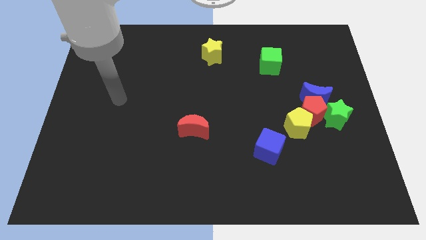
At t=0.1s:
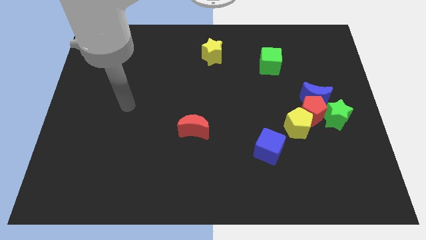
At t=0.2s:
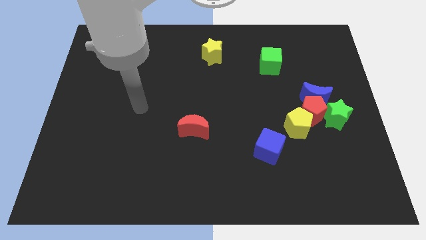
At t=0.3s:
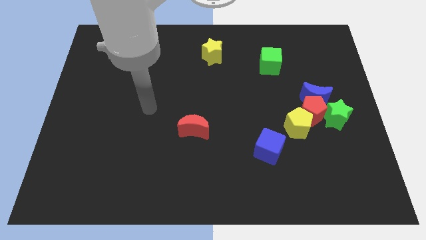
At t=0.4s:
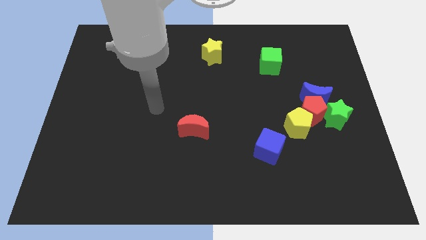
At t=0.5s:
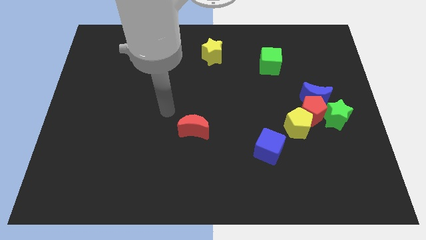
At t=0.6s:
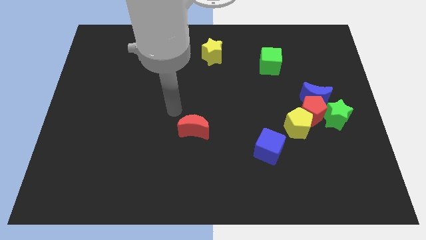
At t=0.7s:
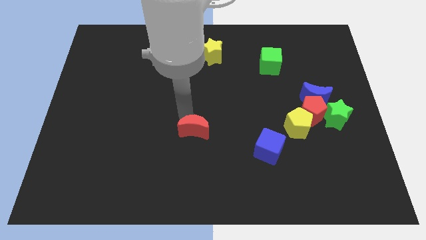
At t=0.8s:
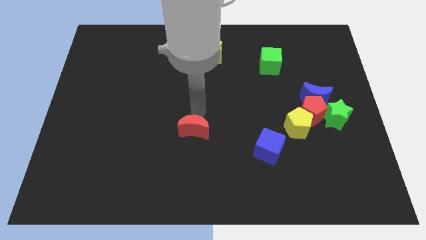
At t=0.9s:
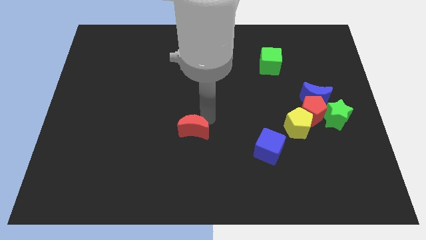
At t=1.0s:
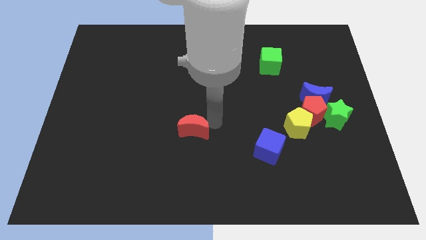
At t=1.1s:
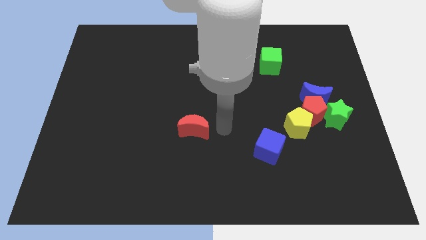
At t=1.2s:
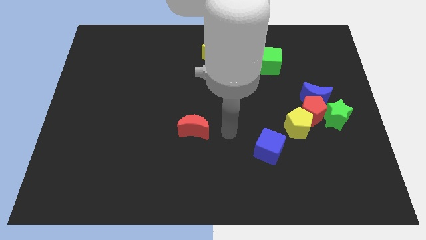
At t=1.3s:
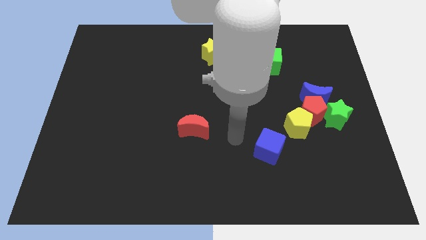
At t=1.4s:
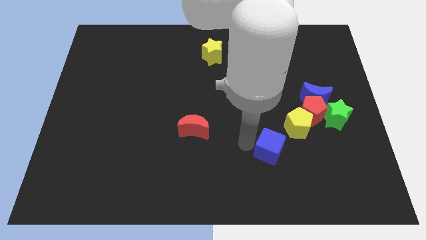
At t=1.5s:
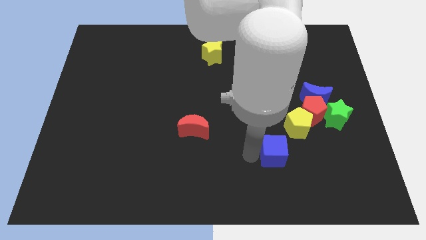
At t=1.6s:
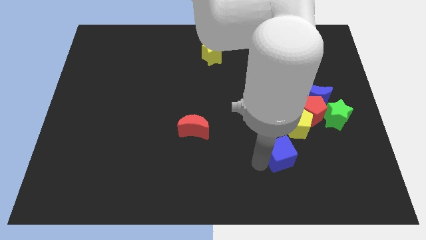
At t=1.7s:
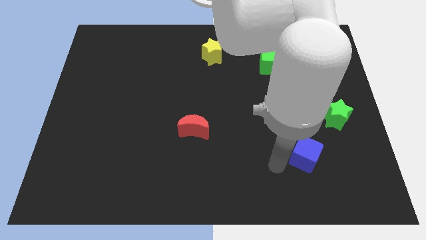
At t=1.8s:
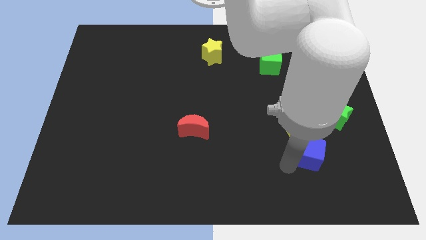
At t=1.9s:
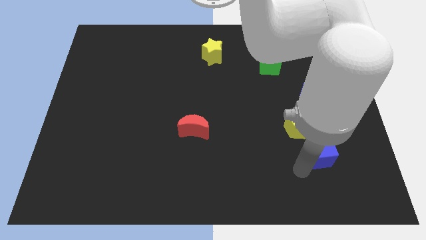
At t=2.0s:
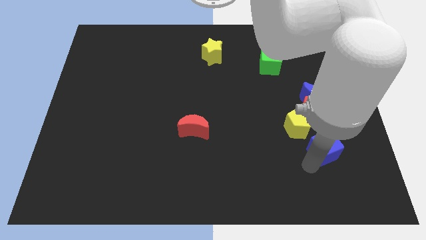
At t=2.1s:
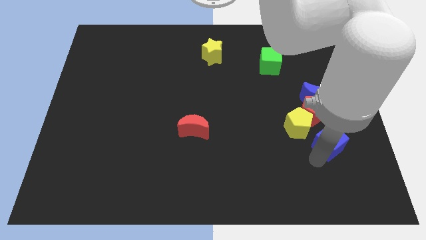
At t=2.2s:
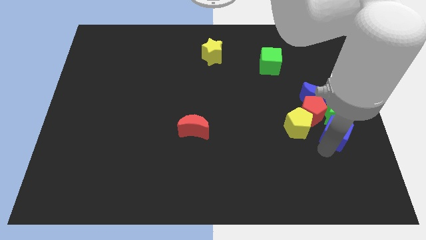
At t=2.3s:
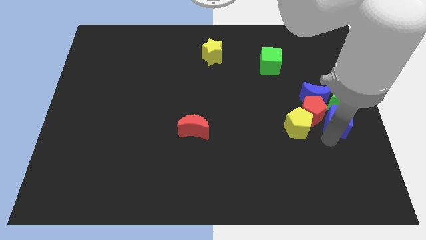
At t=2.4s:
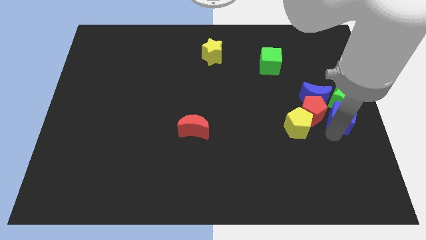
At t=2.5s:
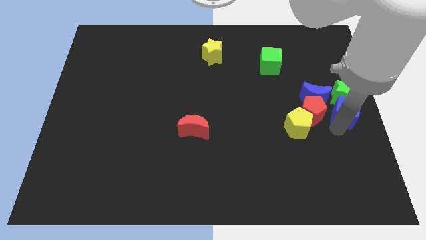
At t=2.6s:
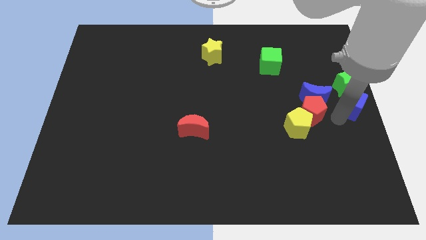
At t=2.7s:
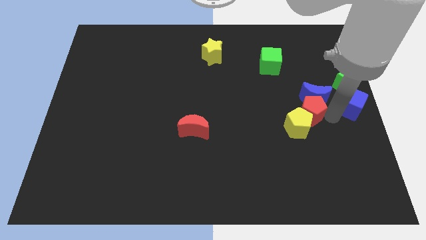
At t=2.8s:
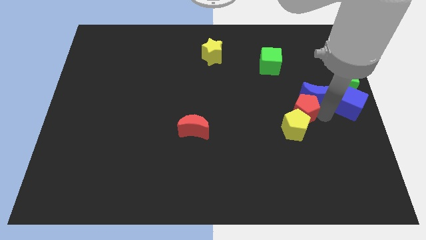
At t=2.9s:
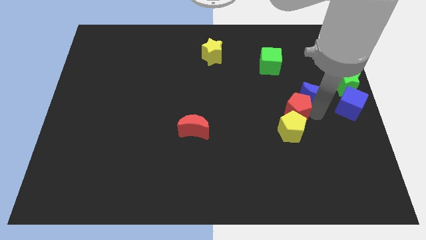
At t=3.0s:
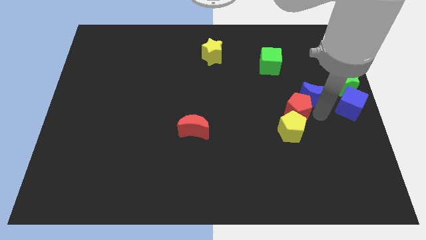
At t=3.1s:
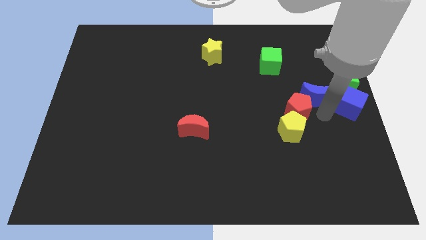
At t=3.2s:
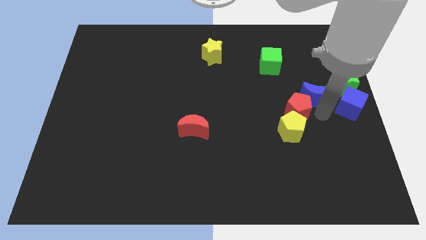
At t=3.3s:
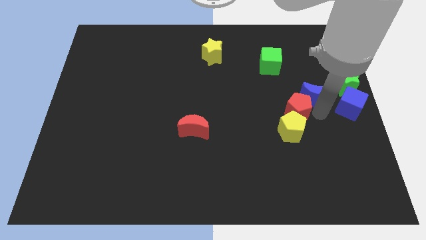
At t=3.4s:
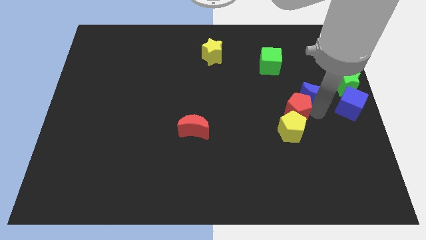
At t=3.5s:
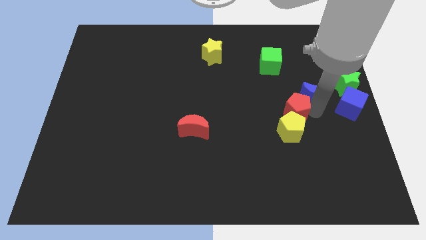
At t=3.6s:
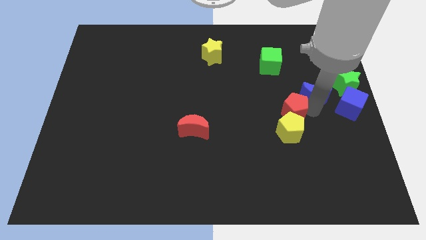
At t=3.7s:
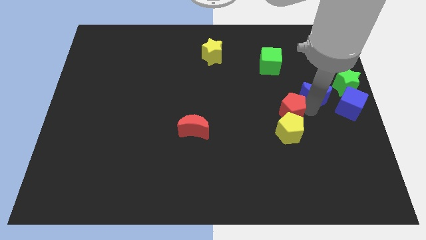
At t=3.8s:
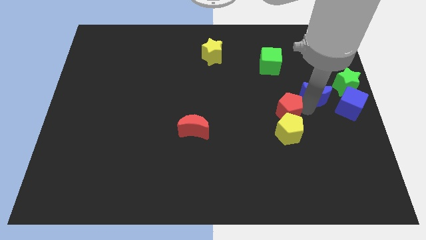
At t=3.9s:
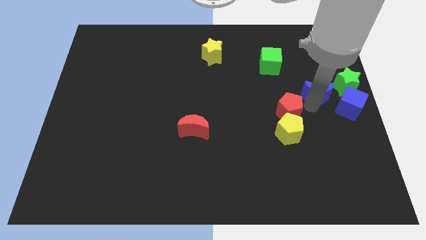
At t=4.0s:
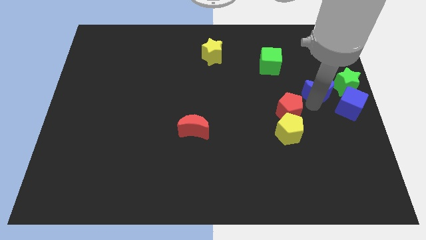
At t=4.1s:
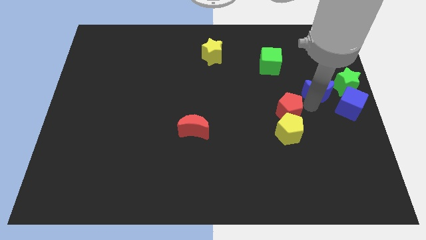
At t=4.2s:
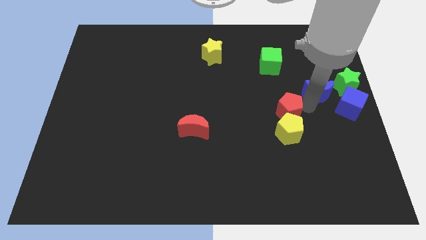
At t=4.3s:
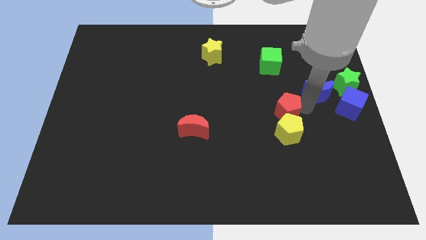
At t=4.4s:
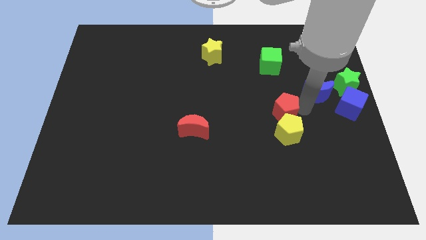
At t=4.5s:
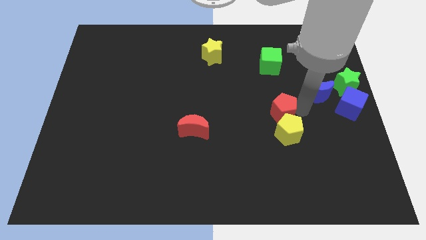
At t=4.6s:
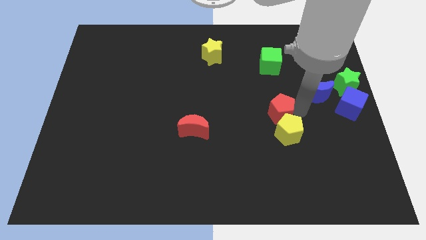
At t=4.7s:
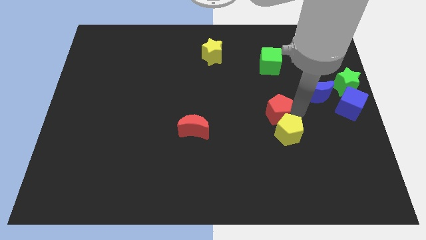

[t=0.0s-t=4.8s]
move the red pentagon away from the blue moon, yellow pentagon, and green star

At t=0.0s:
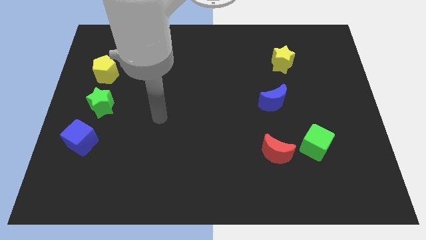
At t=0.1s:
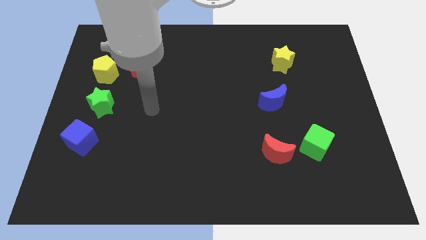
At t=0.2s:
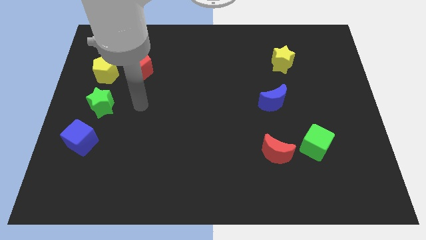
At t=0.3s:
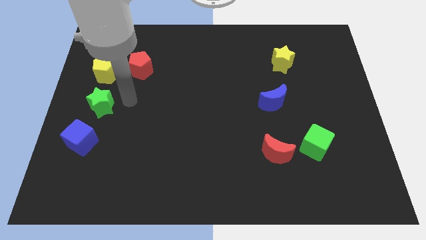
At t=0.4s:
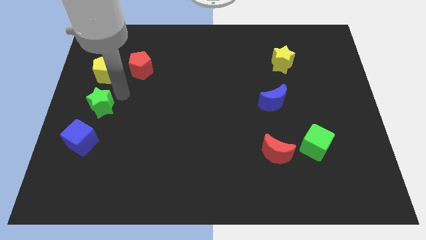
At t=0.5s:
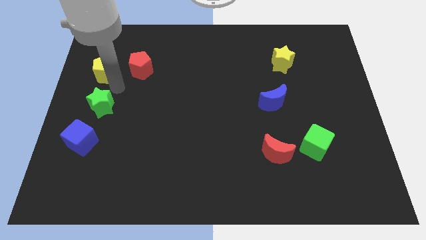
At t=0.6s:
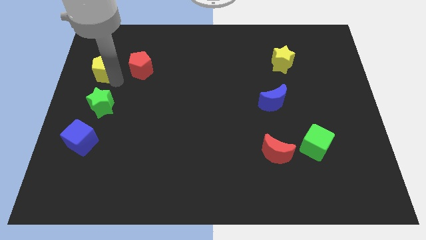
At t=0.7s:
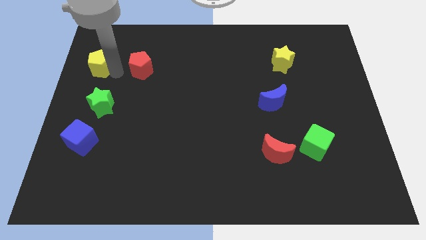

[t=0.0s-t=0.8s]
separate the red pentagon from the yellow pentagon

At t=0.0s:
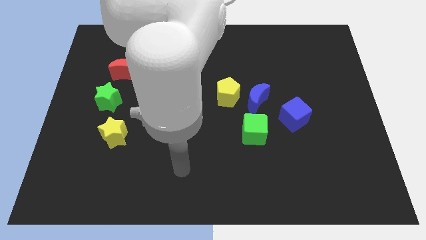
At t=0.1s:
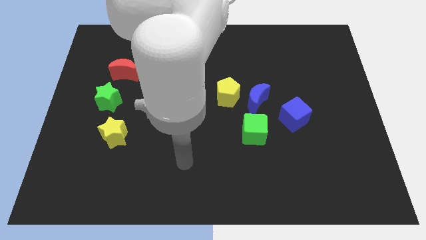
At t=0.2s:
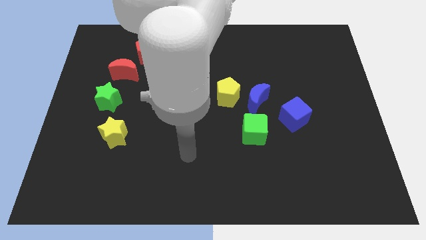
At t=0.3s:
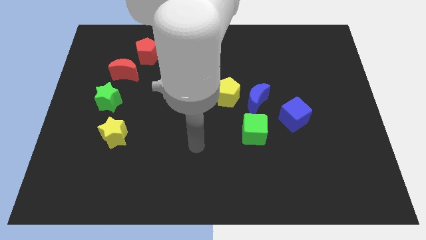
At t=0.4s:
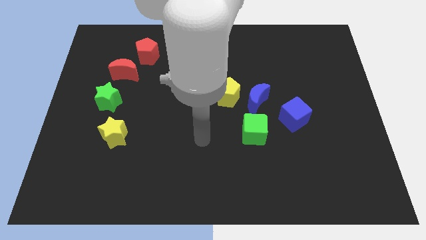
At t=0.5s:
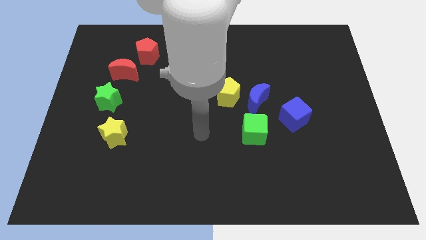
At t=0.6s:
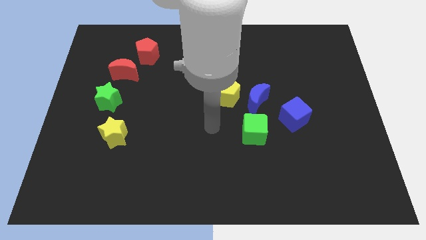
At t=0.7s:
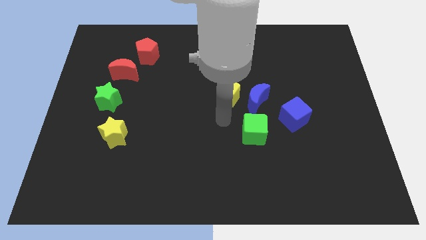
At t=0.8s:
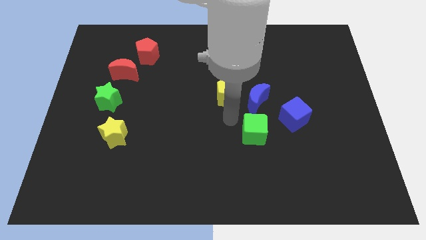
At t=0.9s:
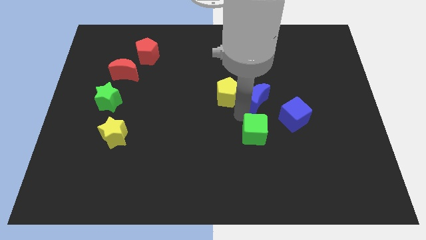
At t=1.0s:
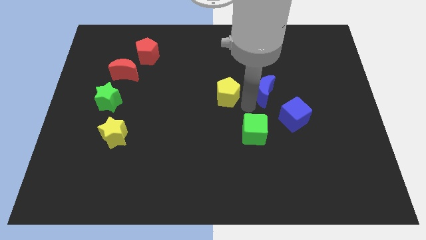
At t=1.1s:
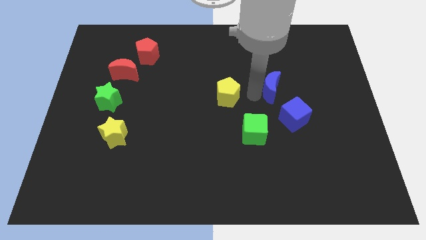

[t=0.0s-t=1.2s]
pull the yellow pentagon apart from the blue moon

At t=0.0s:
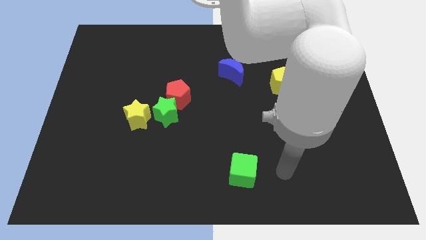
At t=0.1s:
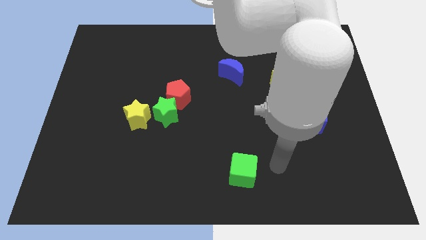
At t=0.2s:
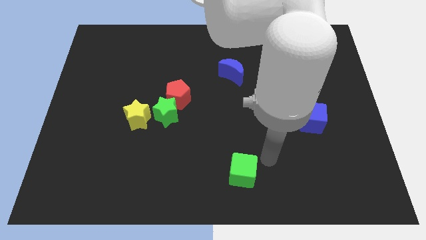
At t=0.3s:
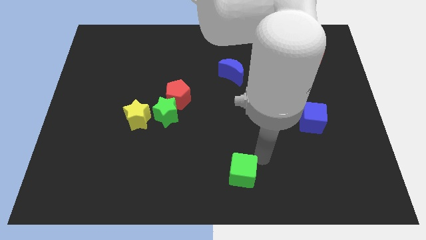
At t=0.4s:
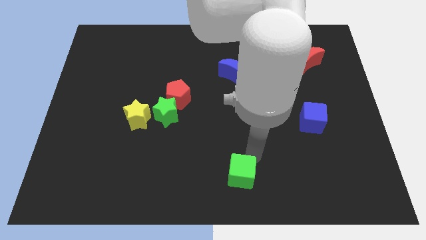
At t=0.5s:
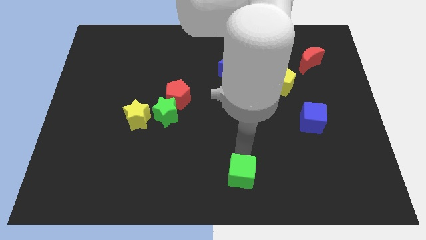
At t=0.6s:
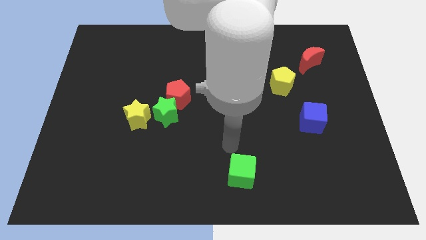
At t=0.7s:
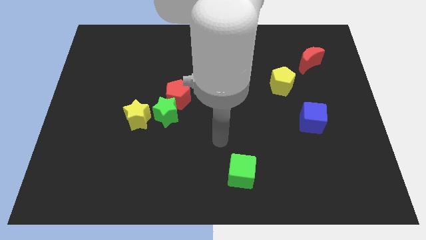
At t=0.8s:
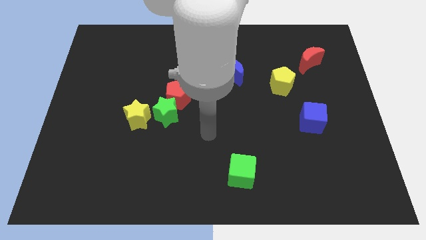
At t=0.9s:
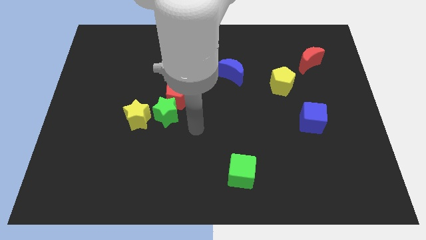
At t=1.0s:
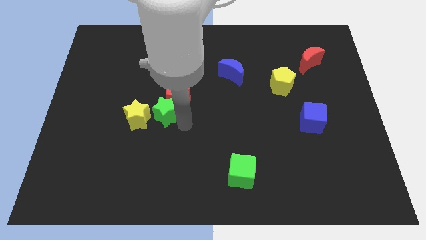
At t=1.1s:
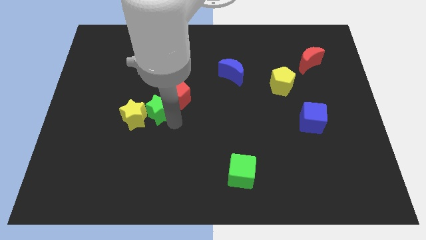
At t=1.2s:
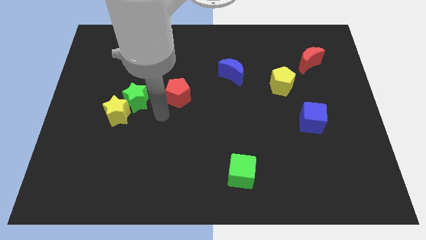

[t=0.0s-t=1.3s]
pull the red pentagon apart from the green star

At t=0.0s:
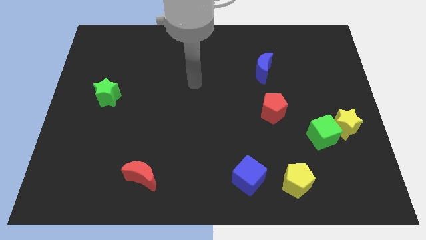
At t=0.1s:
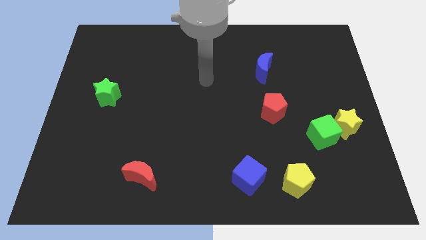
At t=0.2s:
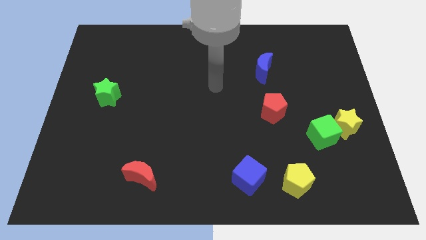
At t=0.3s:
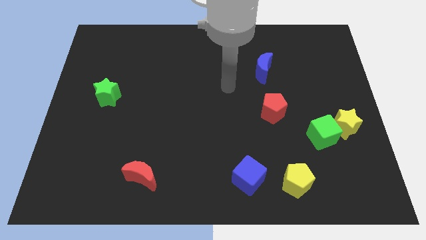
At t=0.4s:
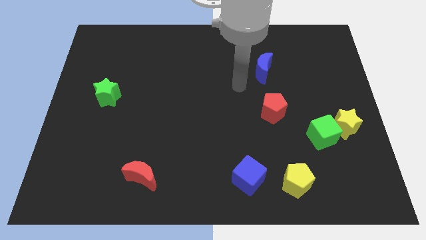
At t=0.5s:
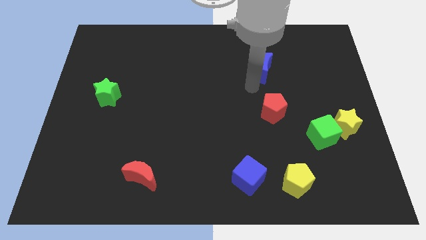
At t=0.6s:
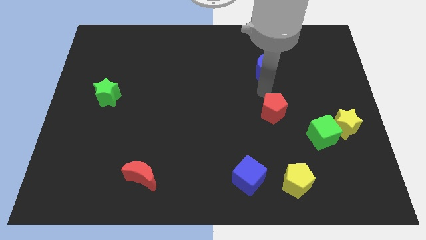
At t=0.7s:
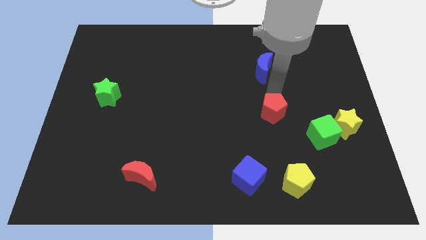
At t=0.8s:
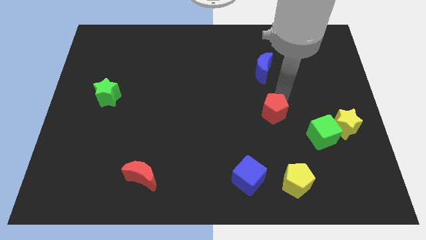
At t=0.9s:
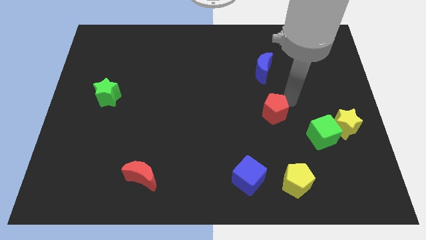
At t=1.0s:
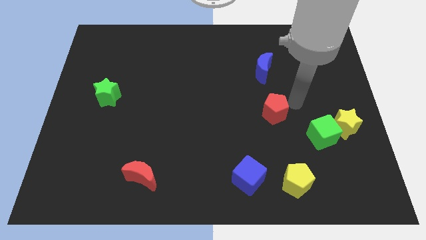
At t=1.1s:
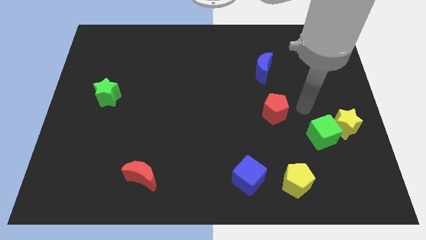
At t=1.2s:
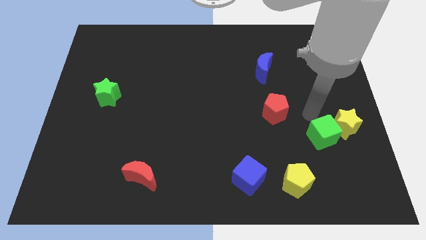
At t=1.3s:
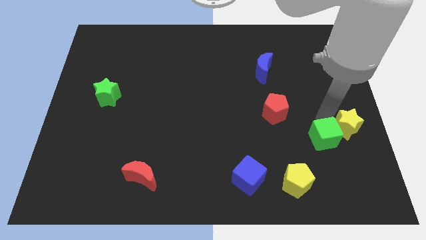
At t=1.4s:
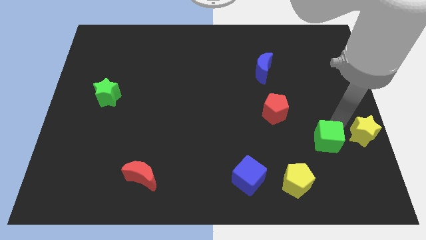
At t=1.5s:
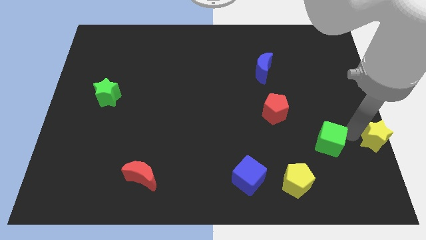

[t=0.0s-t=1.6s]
separate the green cube from the yellow star
